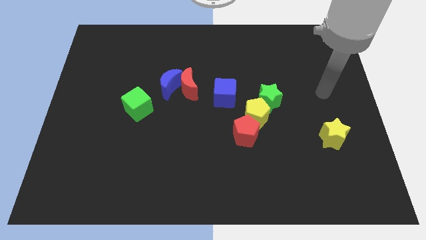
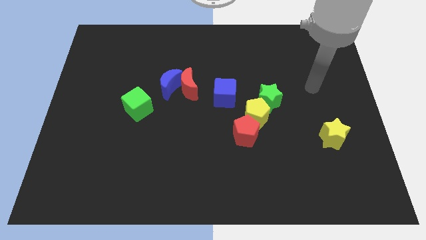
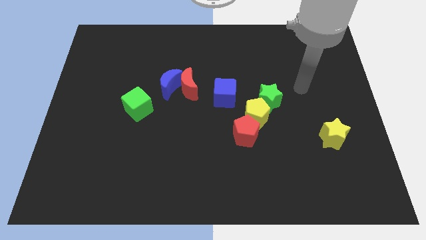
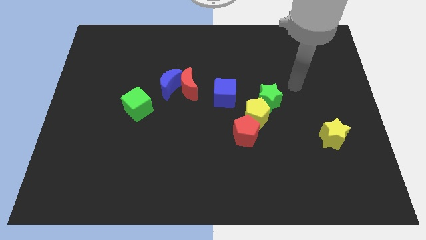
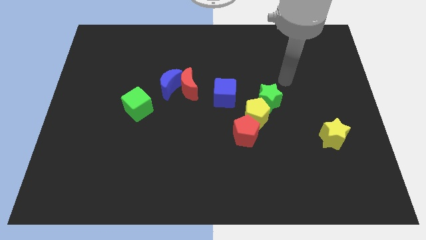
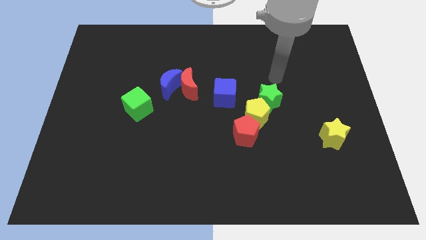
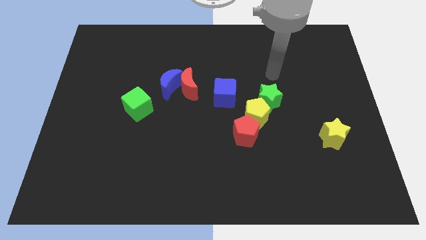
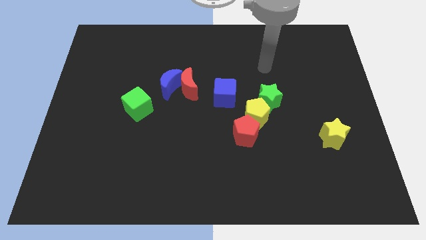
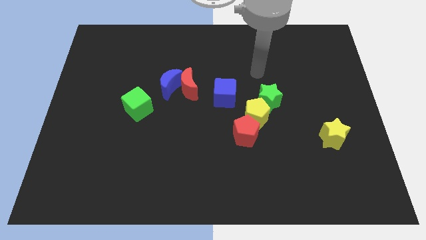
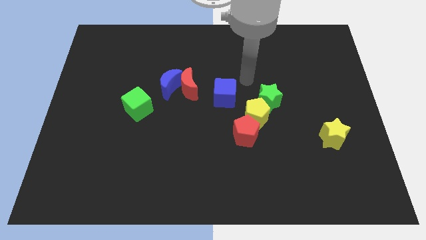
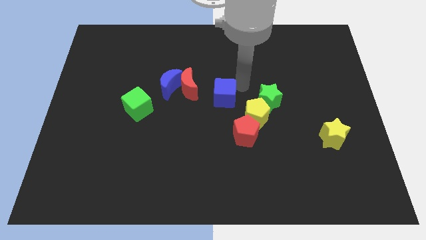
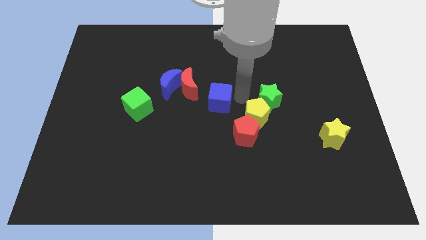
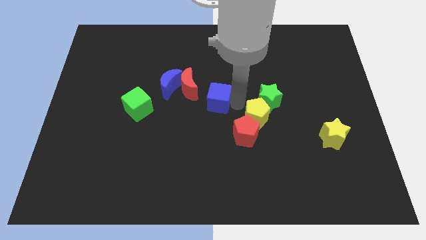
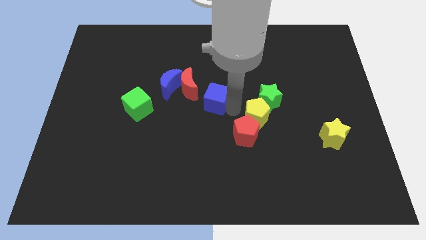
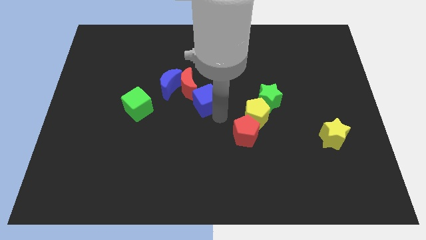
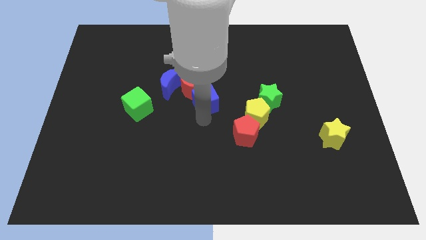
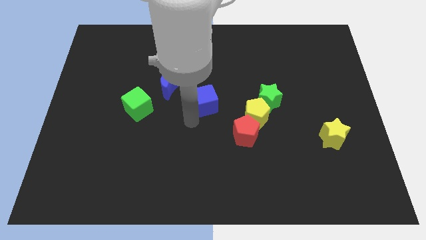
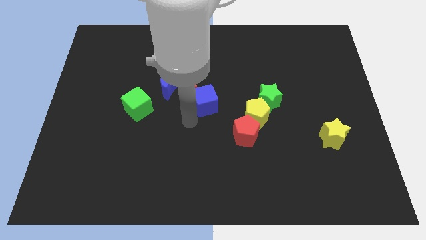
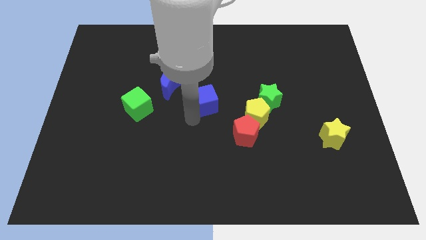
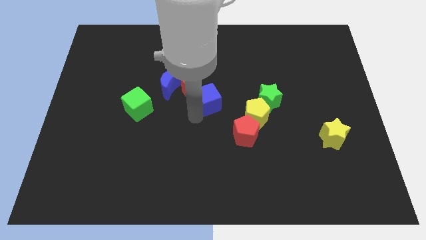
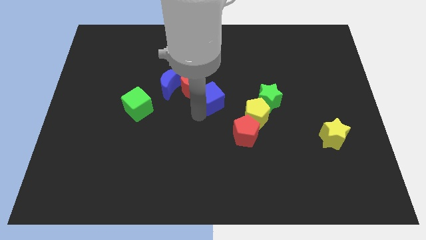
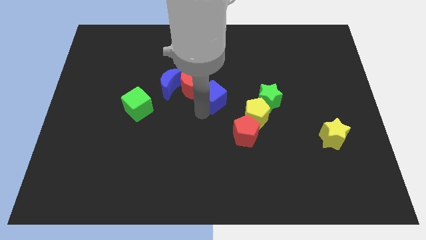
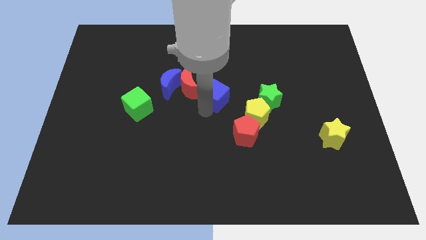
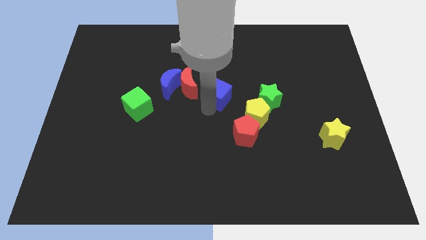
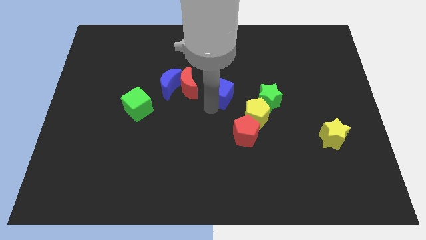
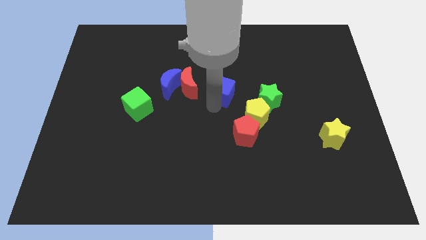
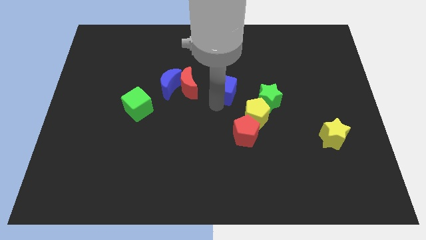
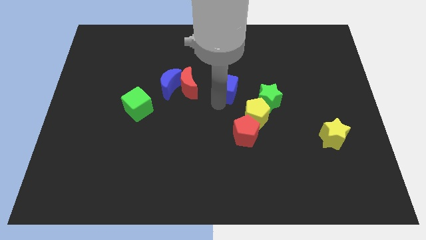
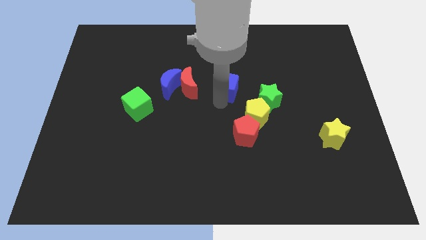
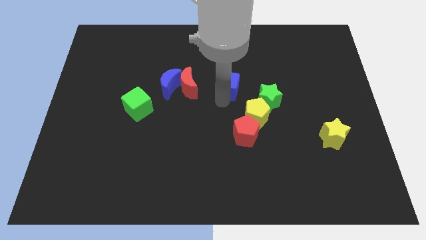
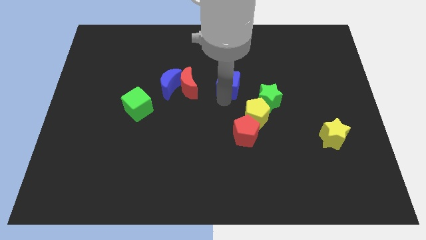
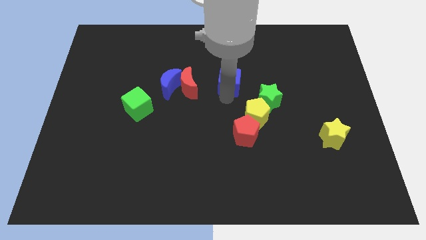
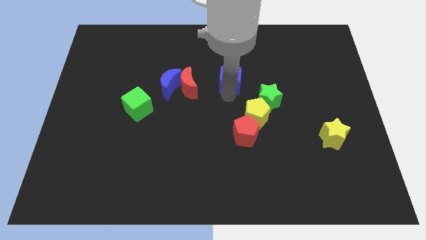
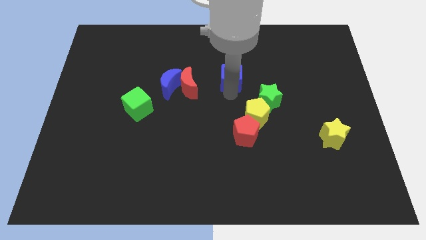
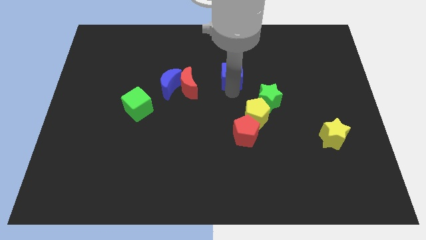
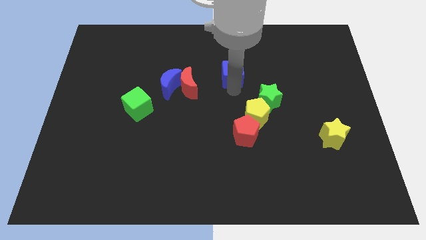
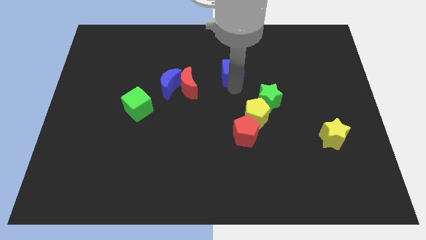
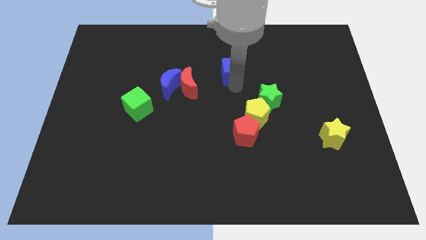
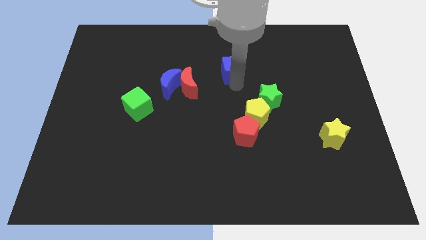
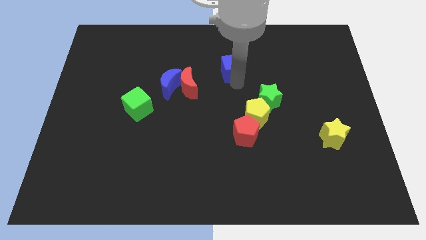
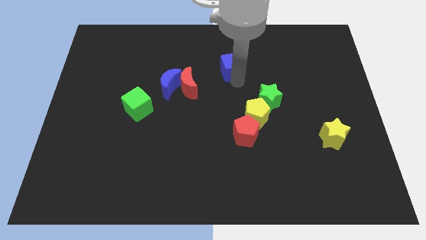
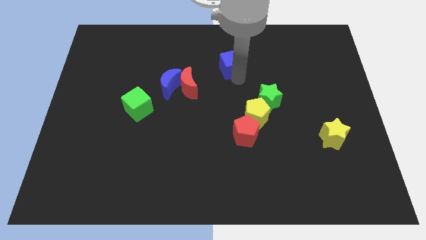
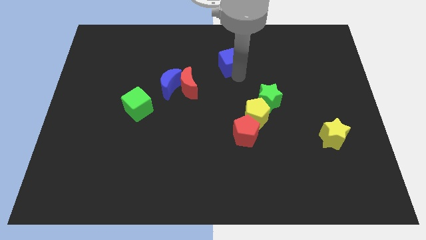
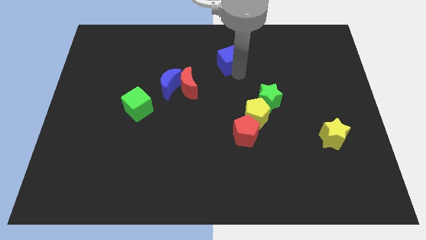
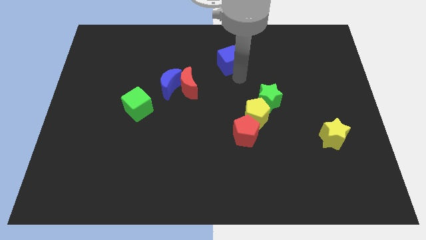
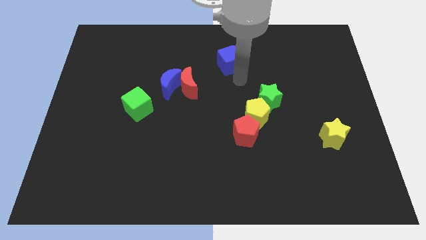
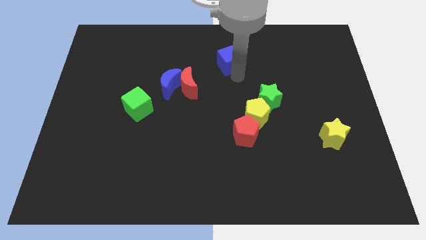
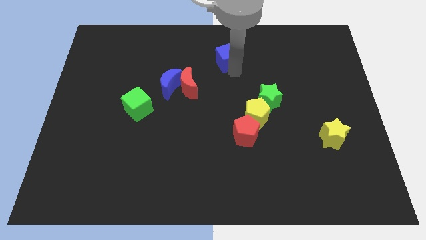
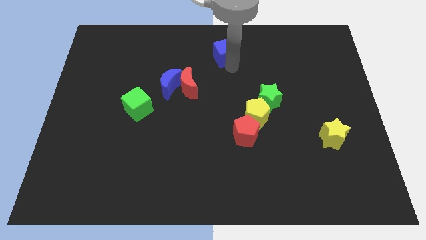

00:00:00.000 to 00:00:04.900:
push the blue cube to the towards your base

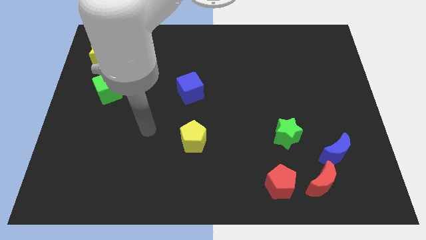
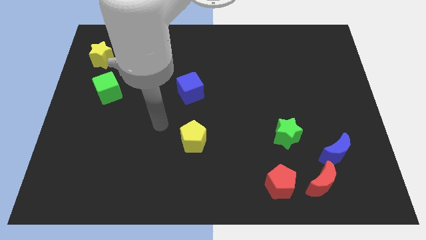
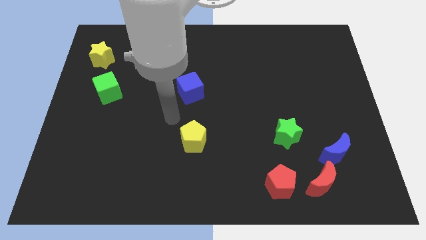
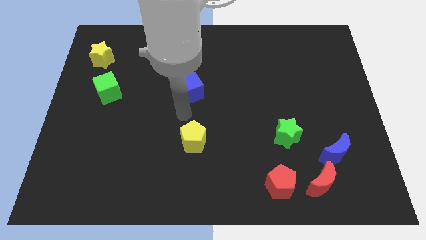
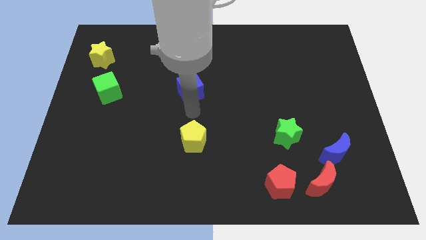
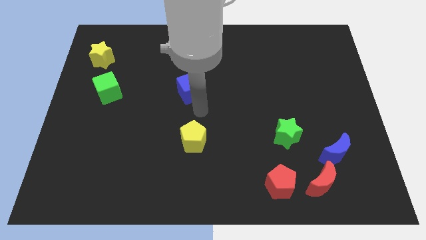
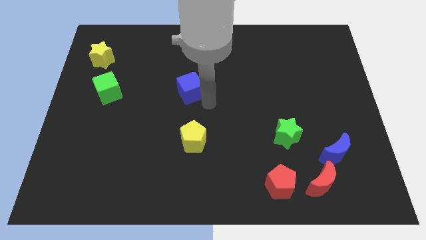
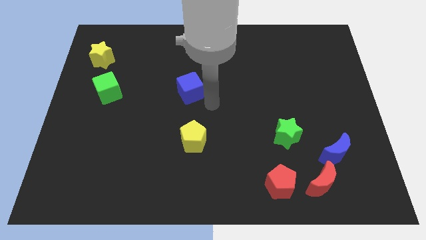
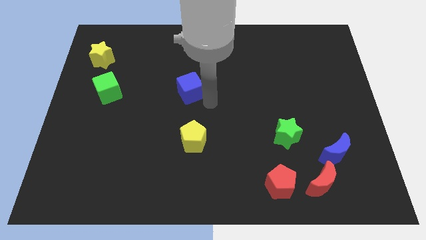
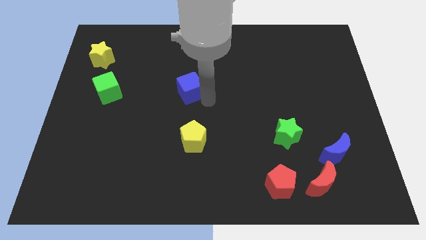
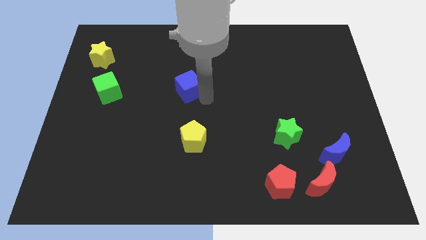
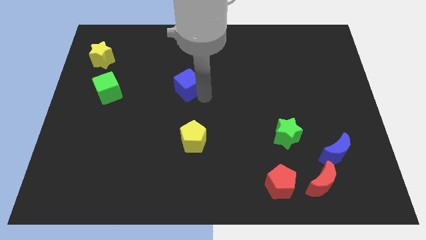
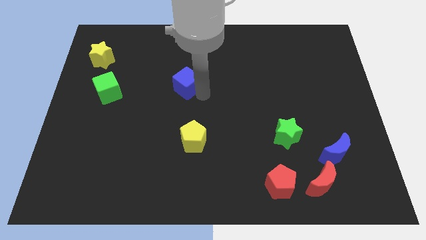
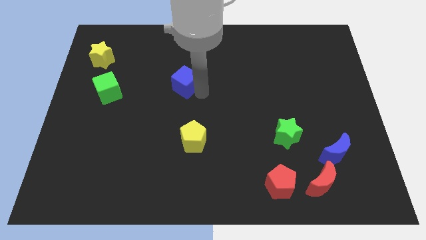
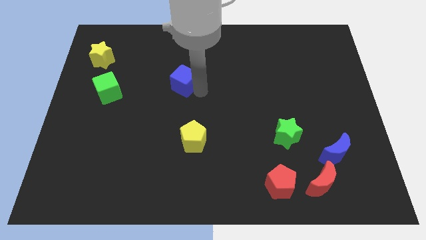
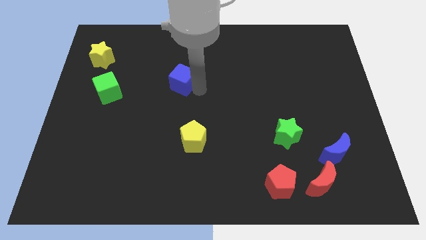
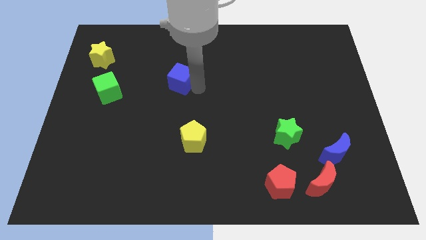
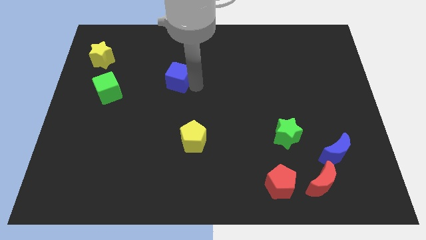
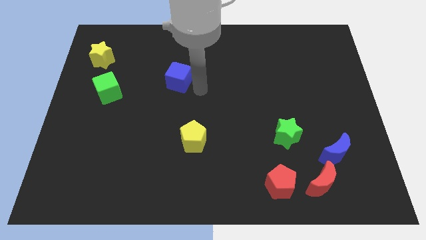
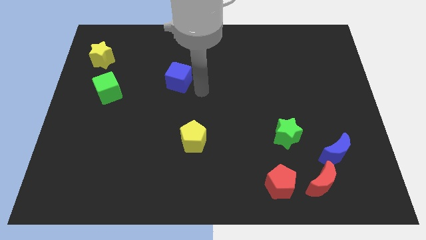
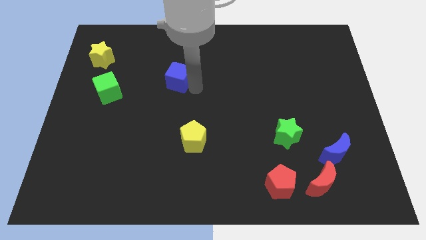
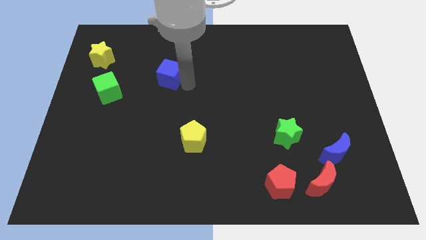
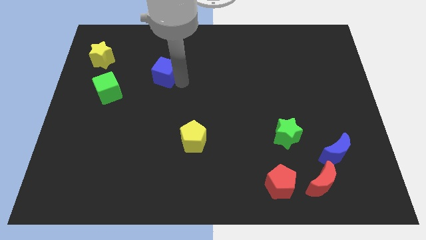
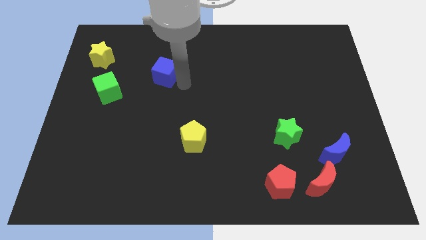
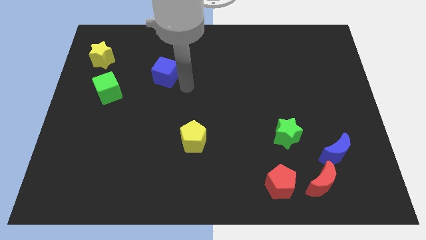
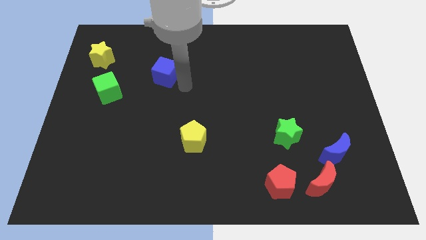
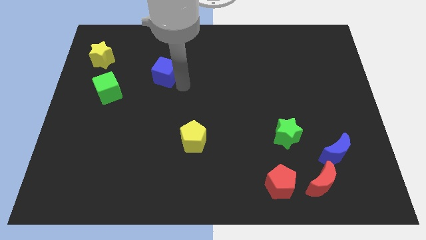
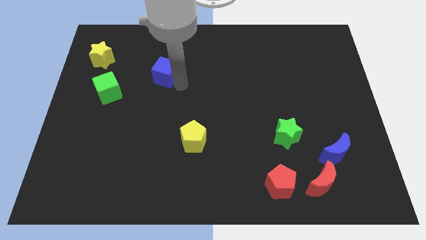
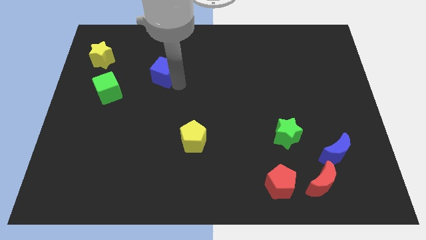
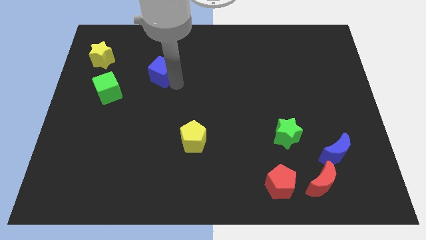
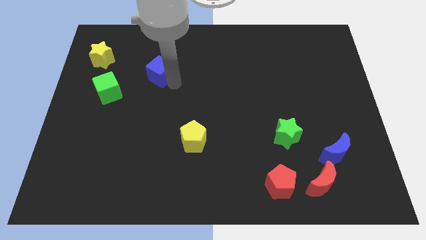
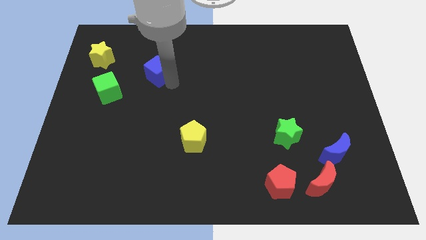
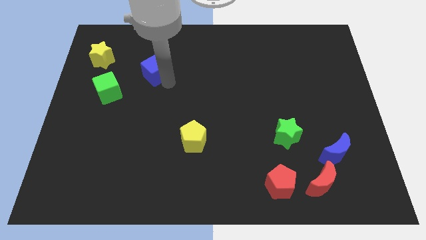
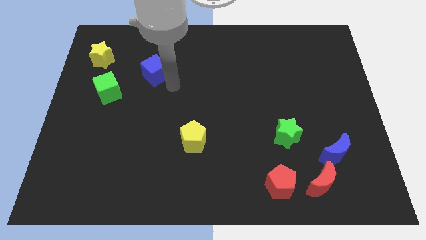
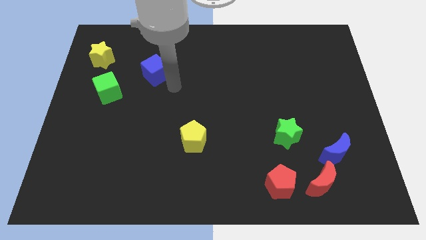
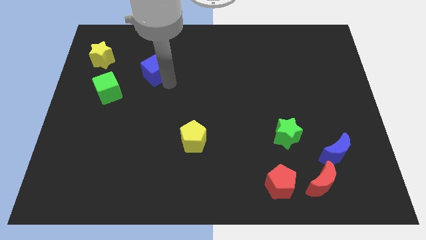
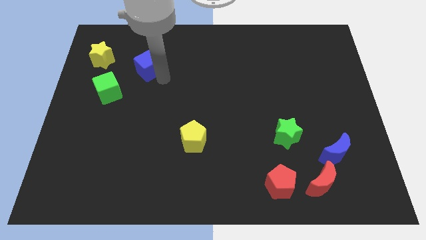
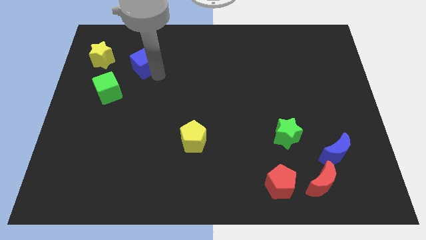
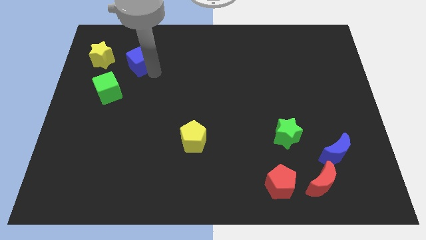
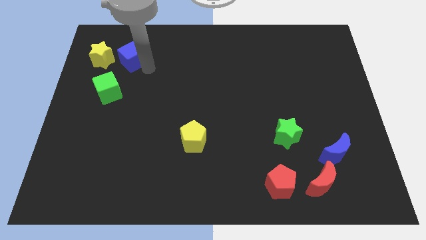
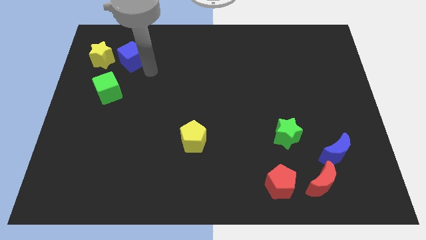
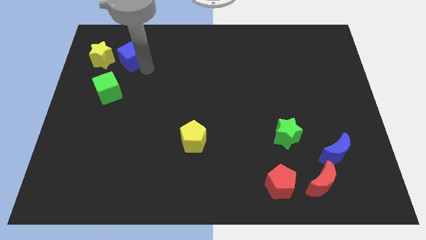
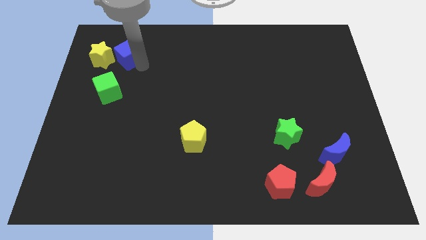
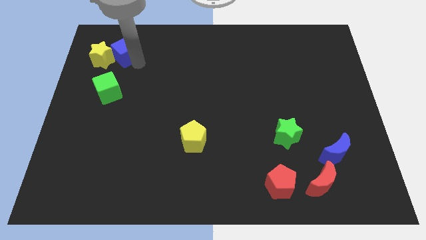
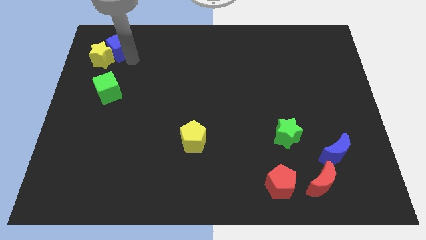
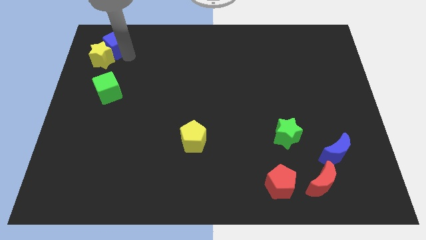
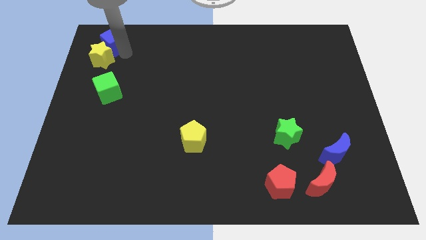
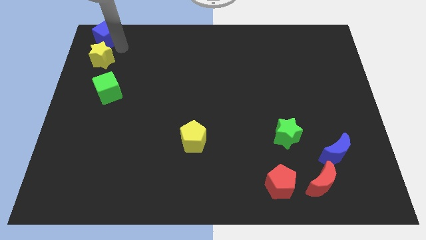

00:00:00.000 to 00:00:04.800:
move the blue cube to the top left of the board
